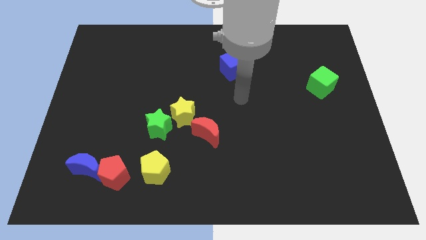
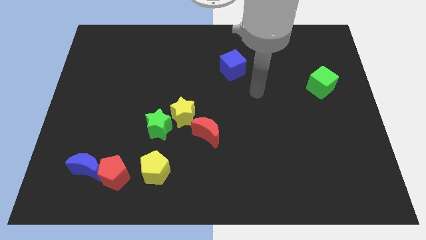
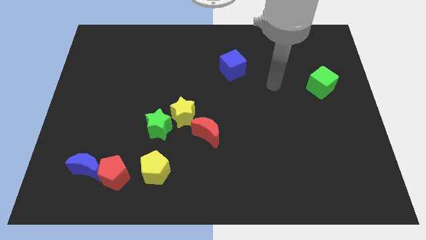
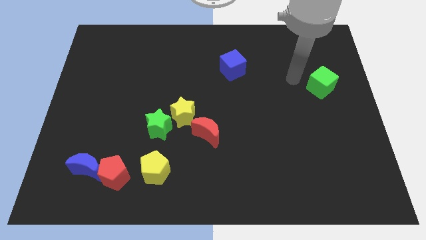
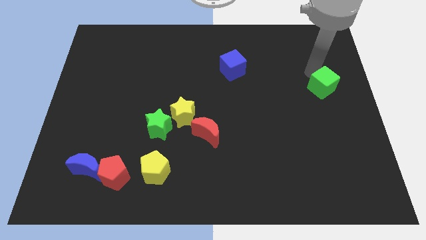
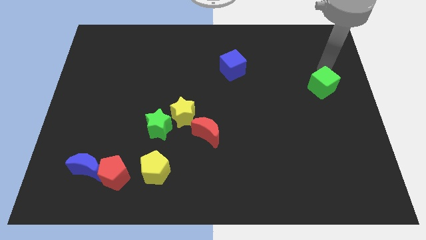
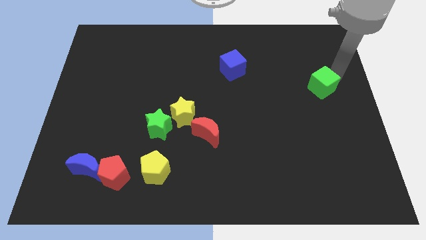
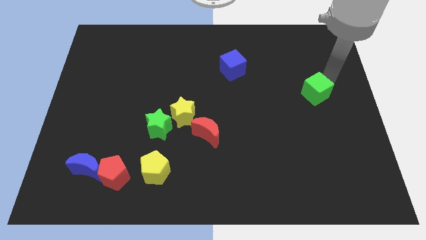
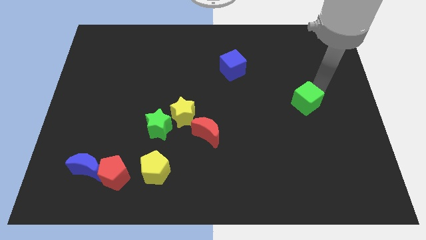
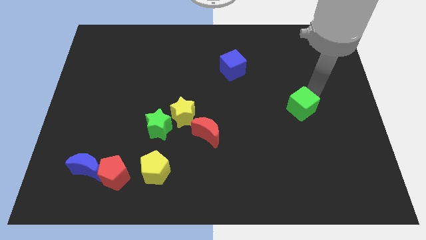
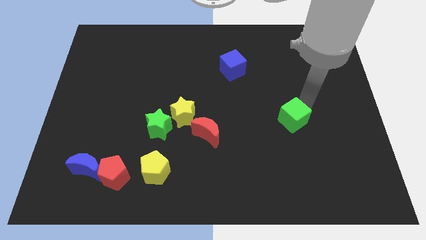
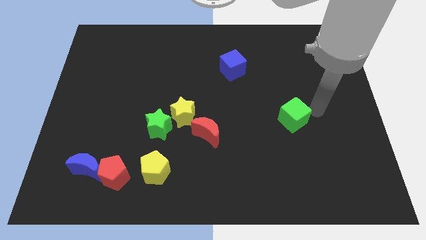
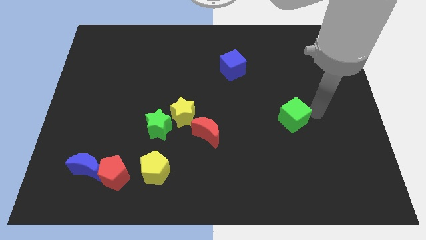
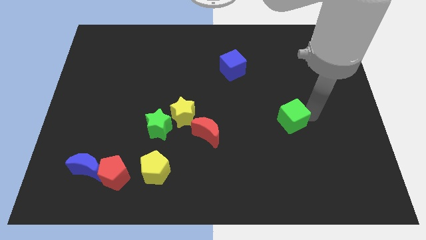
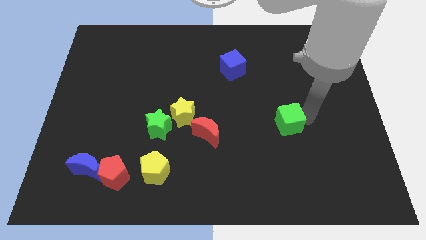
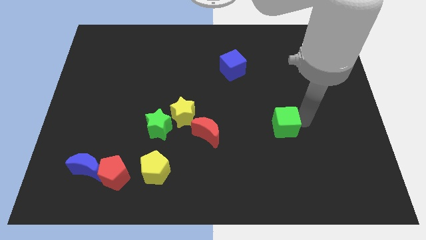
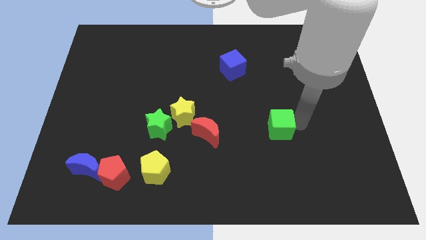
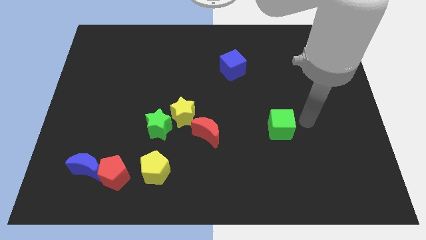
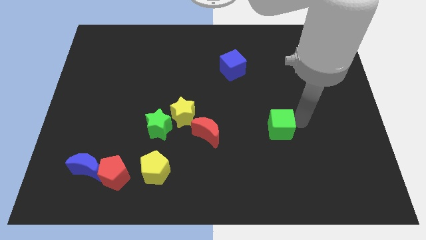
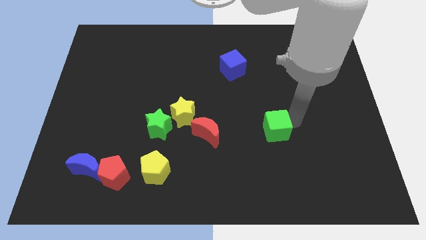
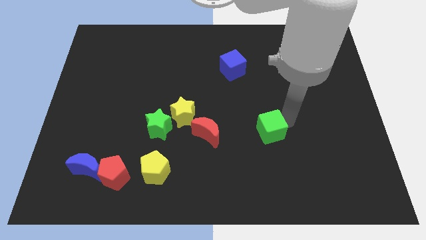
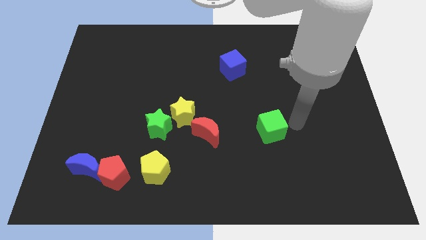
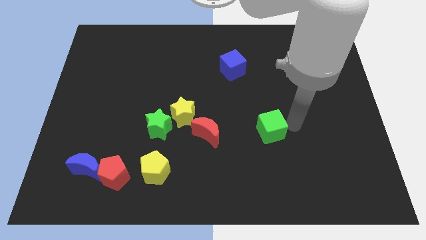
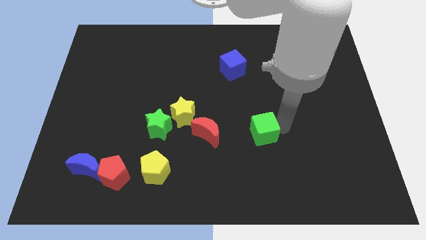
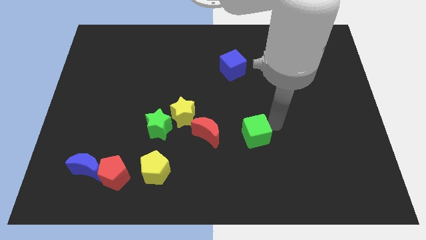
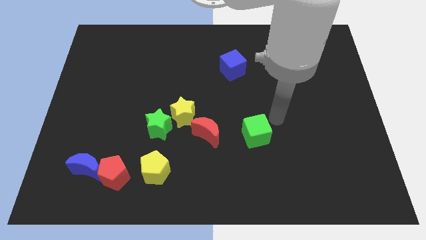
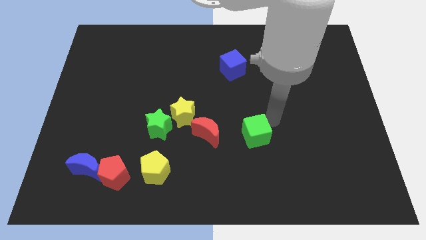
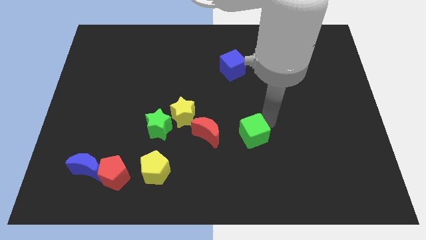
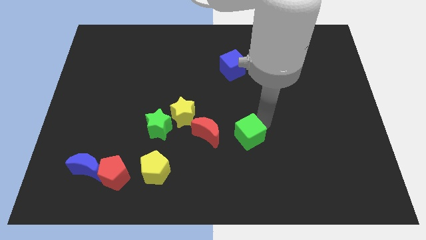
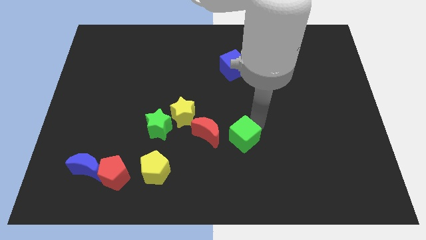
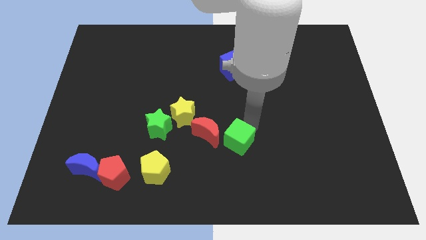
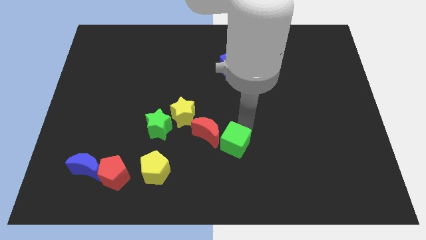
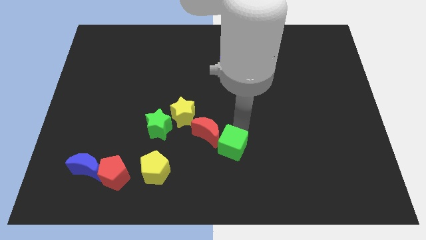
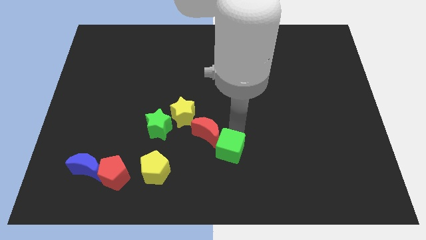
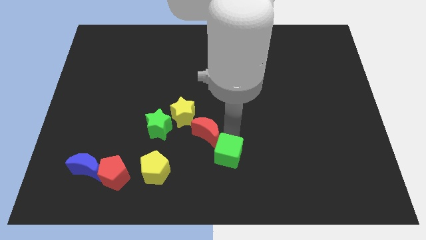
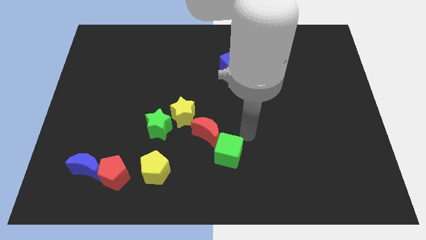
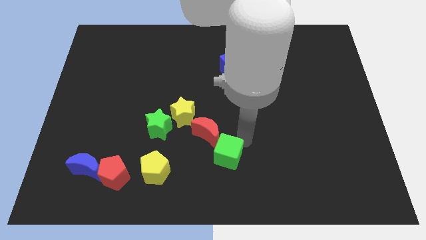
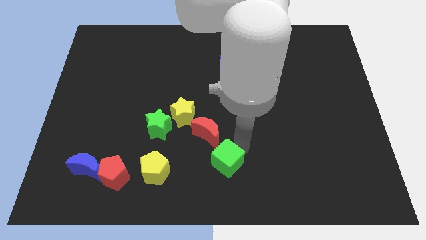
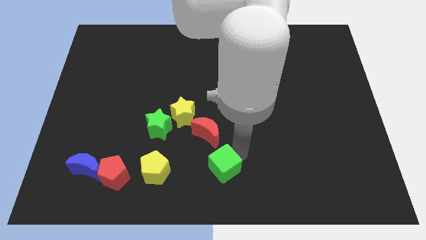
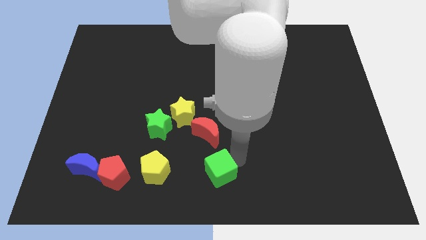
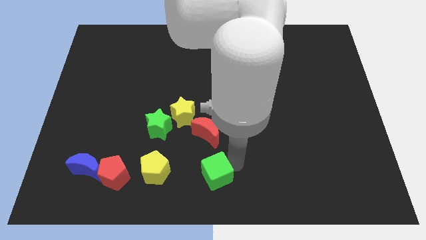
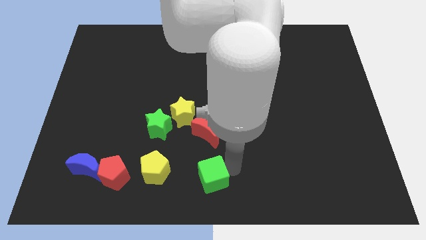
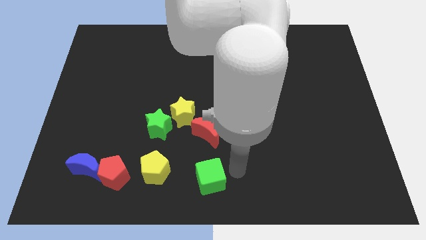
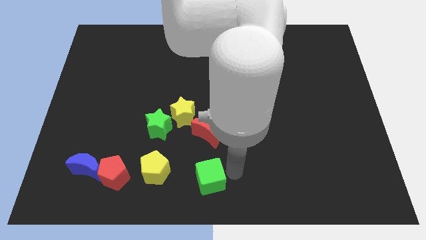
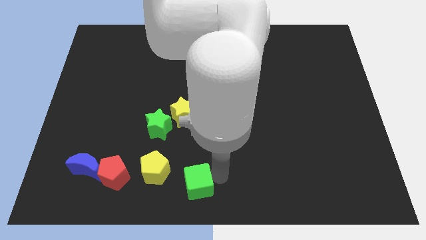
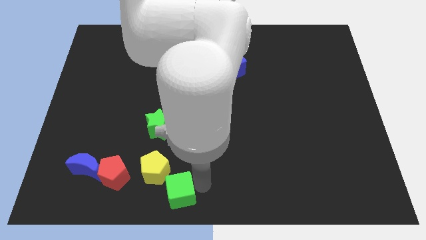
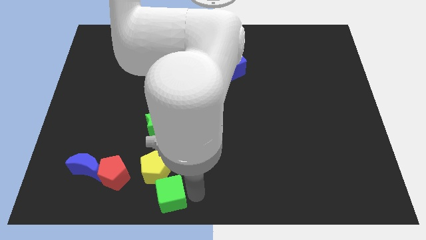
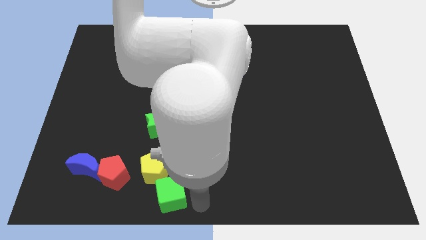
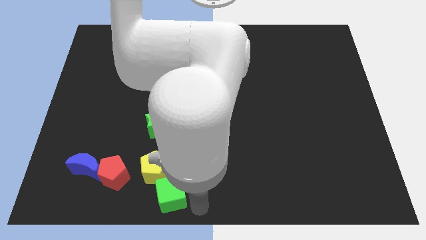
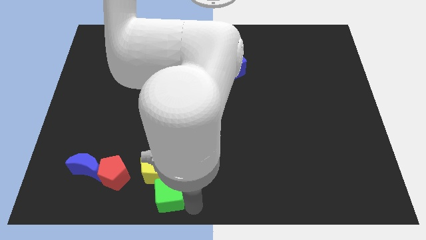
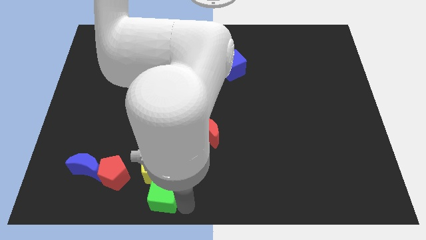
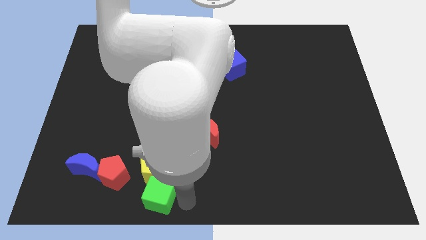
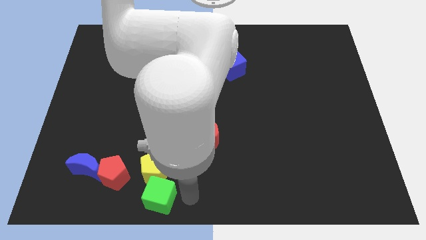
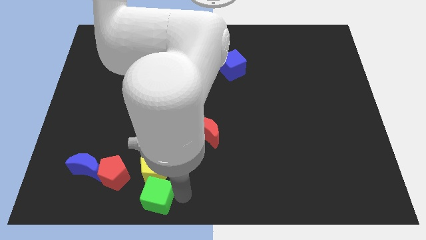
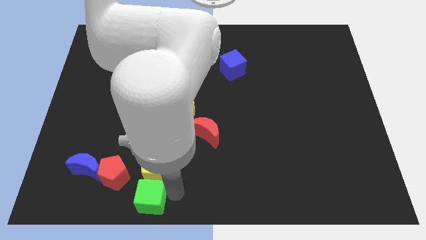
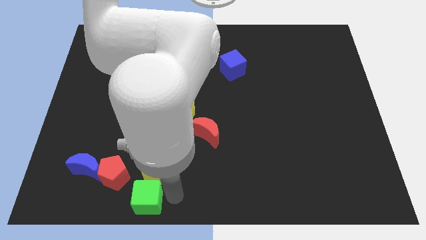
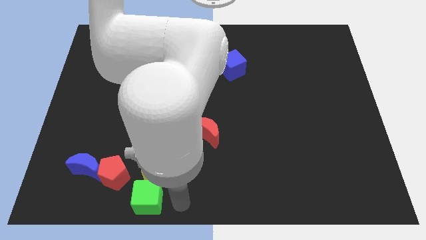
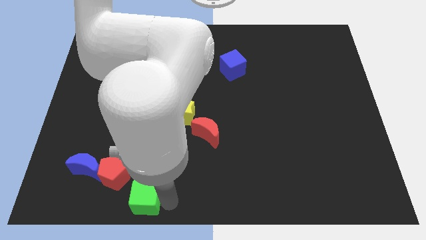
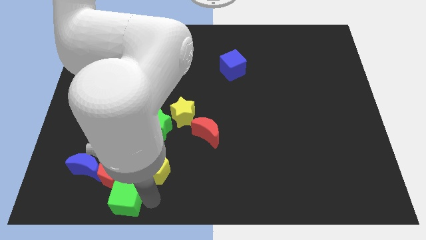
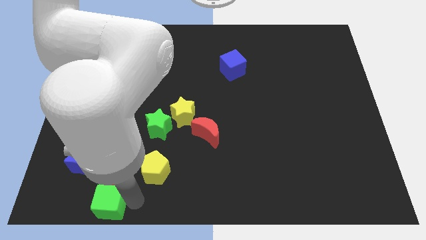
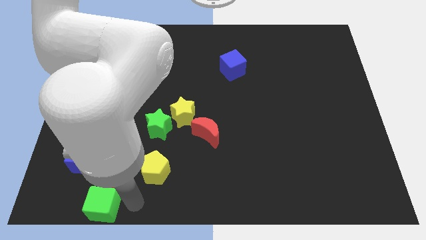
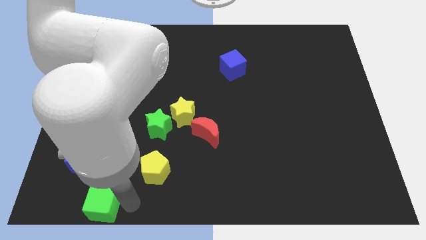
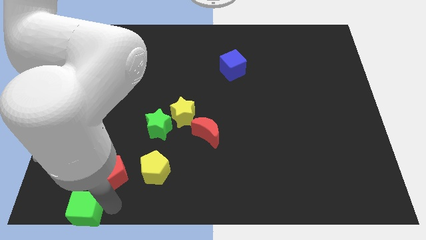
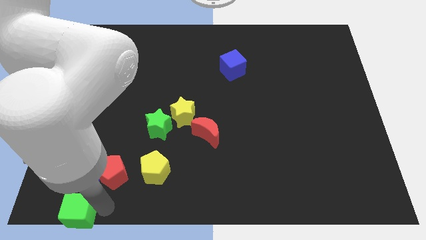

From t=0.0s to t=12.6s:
move the green cube to the bottom left corner
